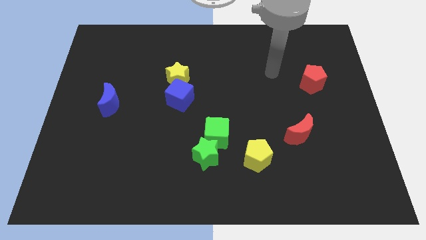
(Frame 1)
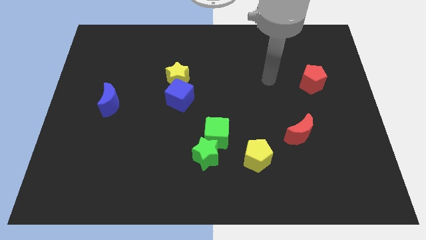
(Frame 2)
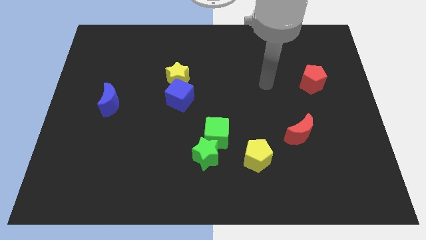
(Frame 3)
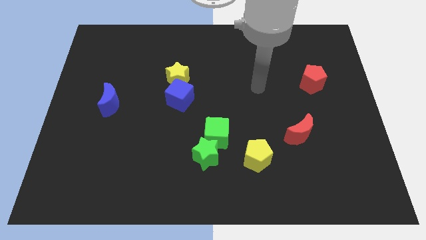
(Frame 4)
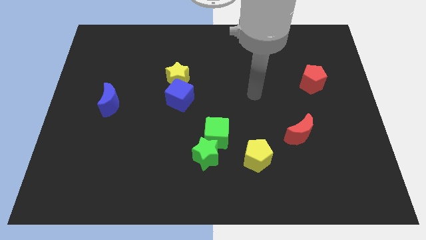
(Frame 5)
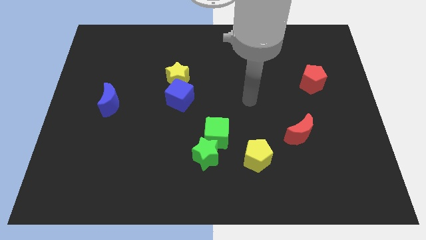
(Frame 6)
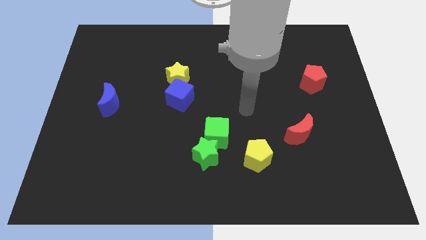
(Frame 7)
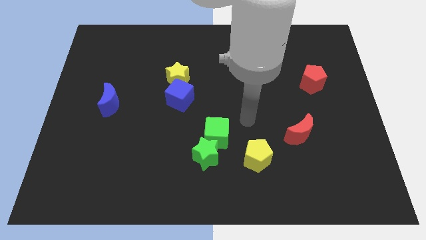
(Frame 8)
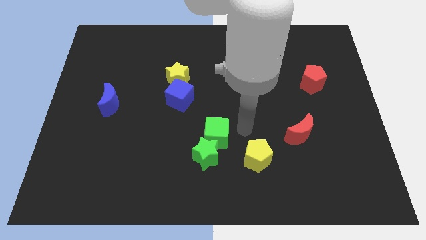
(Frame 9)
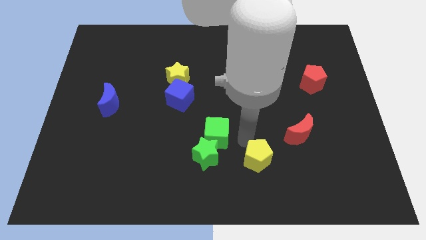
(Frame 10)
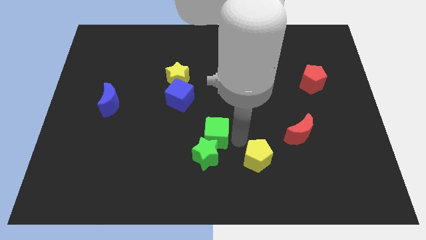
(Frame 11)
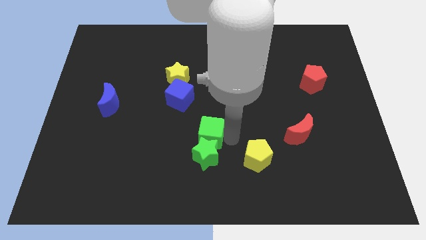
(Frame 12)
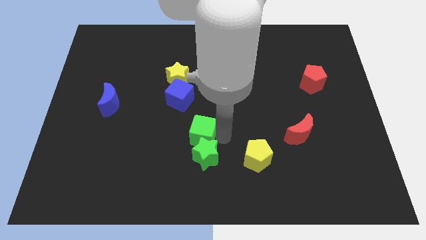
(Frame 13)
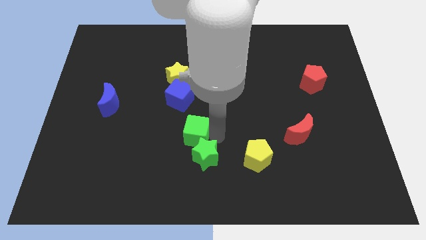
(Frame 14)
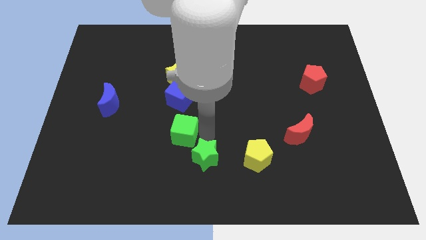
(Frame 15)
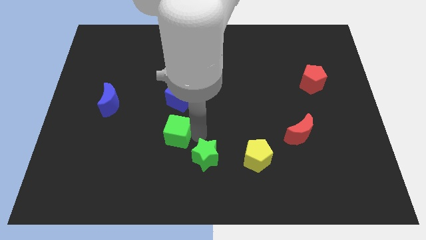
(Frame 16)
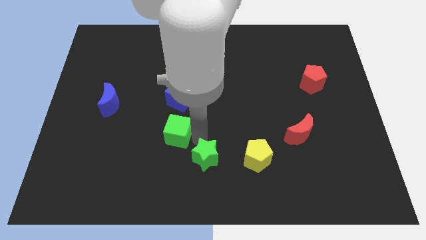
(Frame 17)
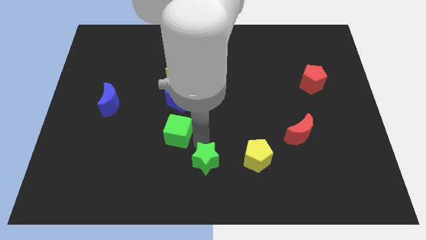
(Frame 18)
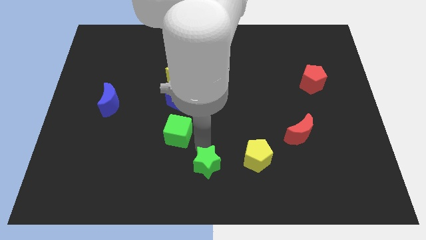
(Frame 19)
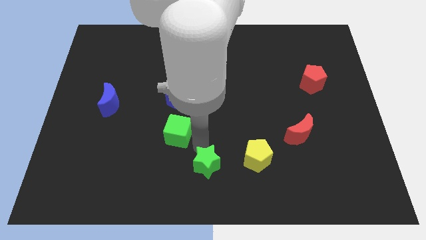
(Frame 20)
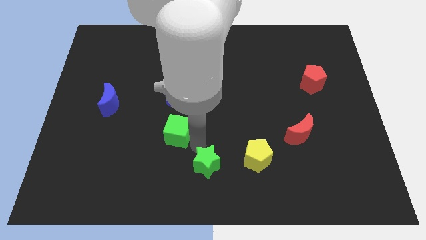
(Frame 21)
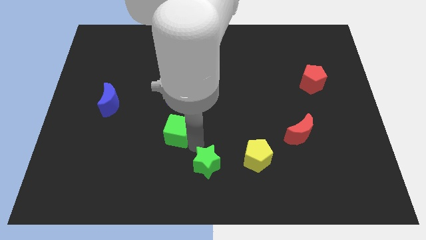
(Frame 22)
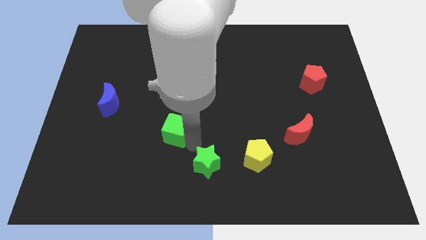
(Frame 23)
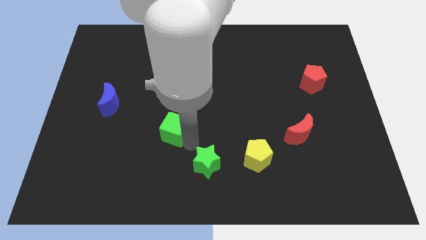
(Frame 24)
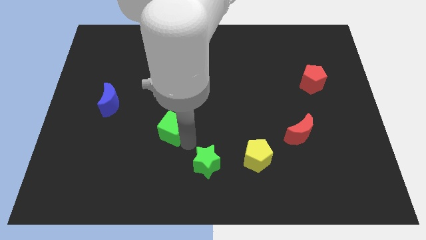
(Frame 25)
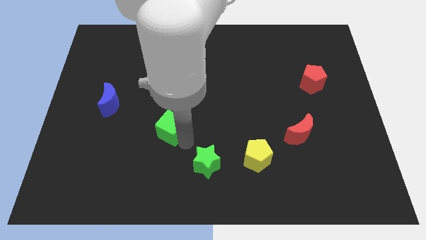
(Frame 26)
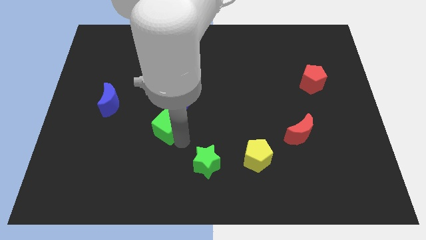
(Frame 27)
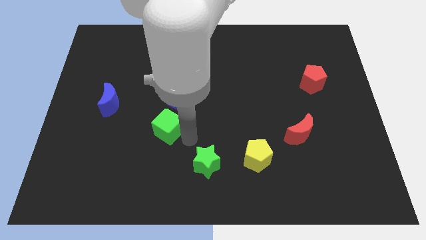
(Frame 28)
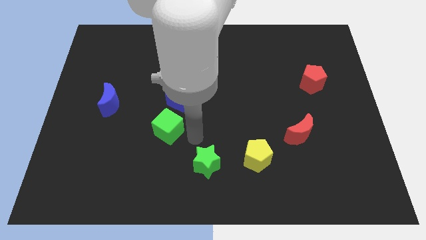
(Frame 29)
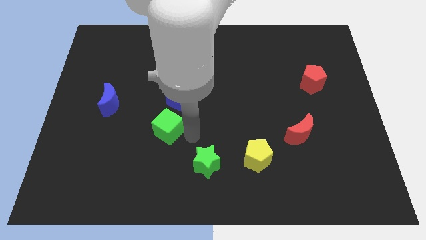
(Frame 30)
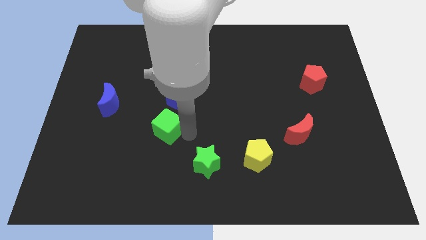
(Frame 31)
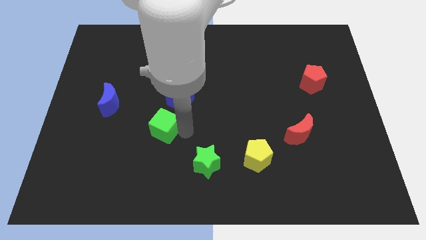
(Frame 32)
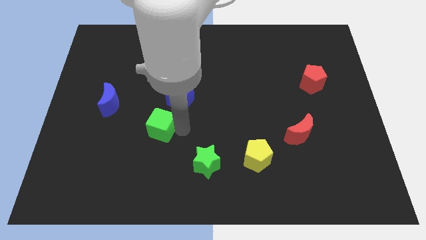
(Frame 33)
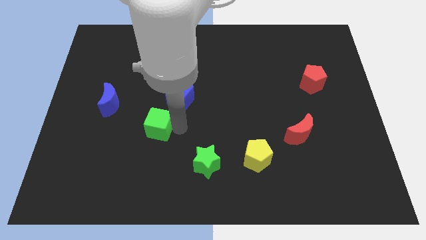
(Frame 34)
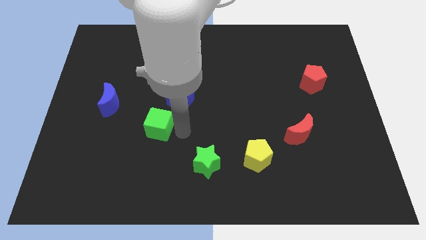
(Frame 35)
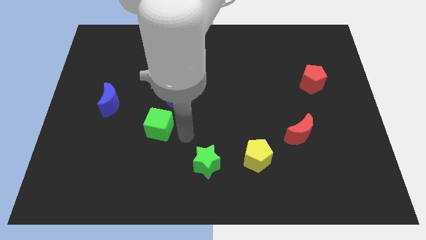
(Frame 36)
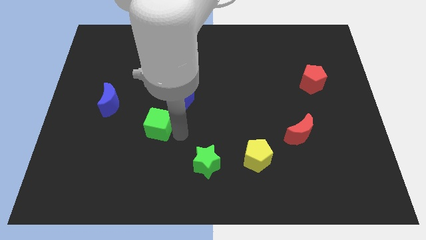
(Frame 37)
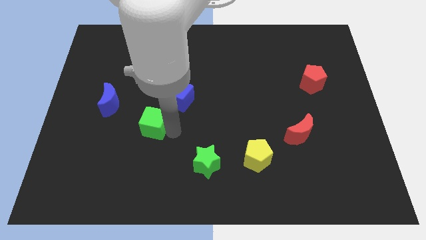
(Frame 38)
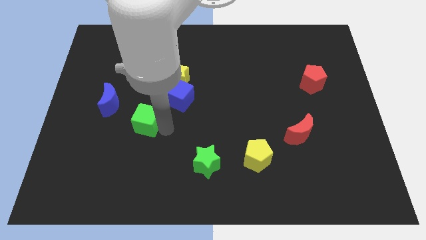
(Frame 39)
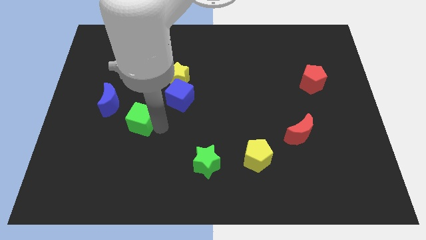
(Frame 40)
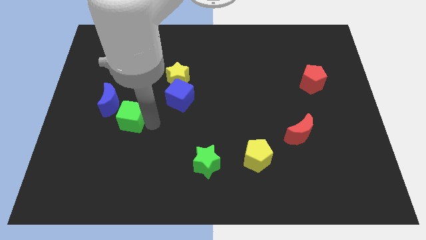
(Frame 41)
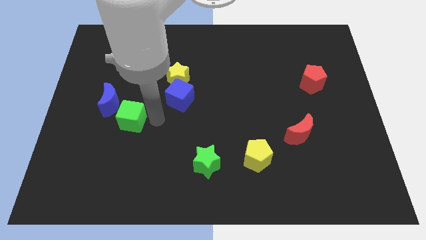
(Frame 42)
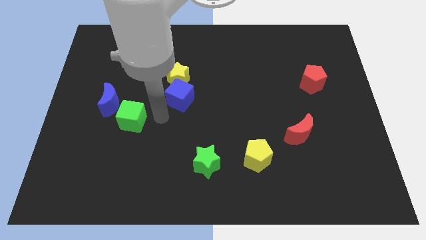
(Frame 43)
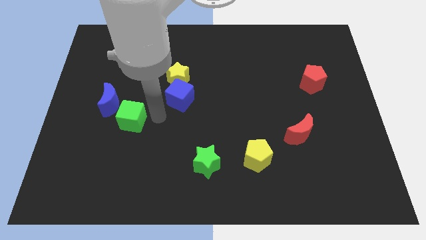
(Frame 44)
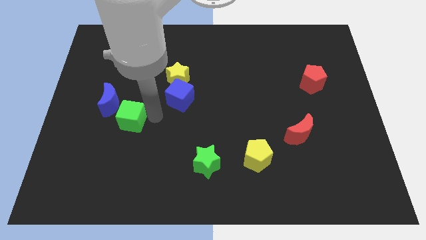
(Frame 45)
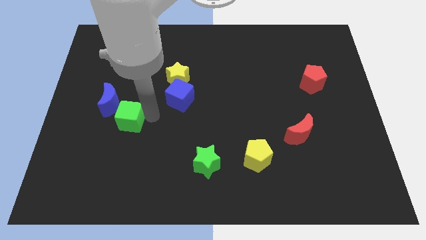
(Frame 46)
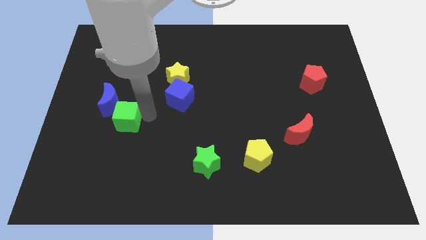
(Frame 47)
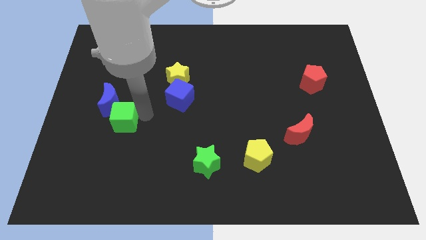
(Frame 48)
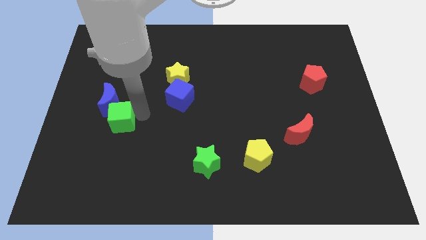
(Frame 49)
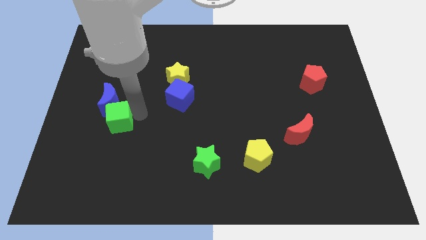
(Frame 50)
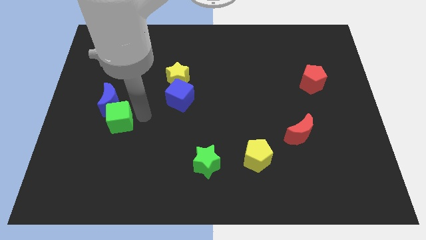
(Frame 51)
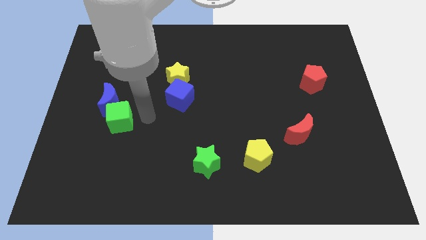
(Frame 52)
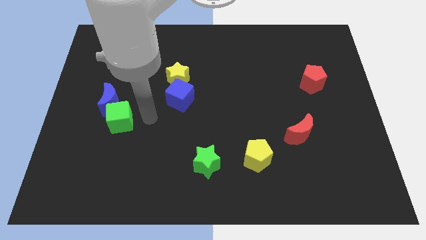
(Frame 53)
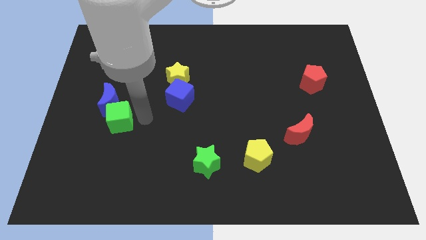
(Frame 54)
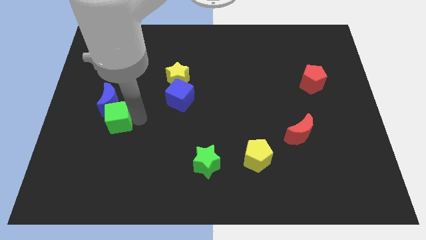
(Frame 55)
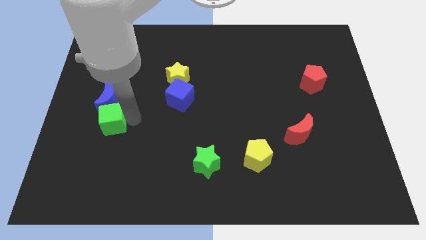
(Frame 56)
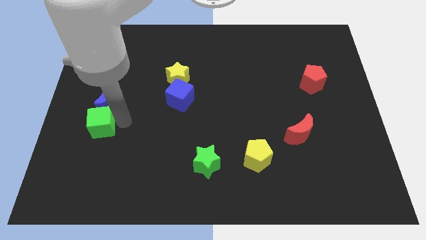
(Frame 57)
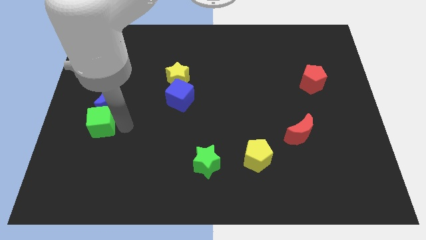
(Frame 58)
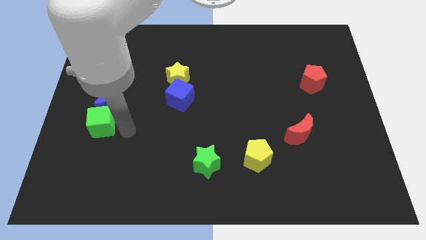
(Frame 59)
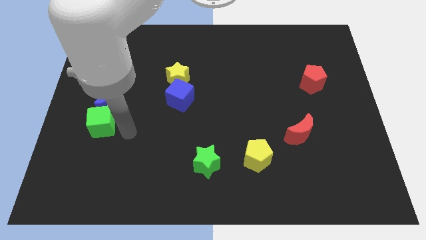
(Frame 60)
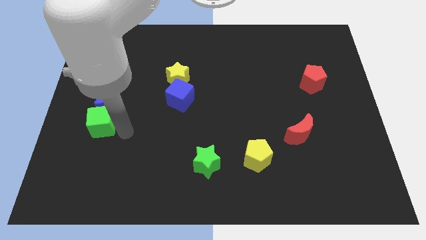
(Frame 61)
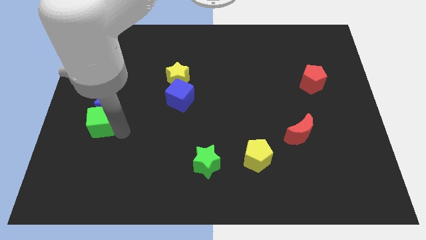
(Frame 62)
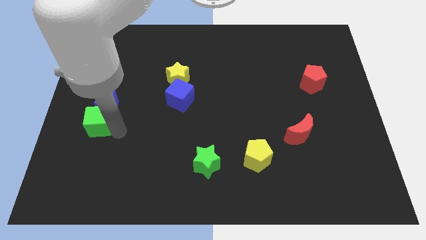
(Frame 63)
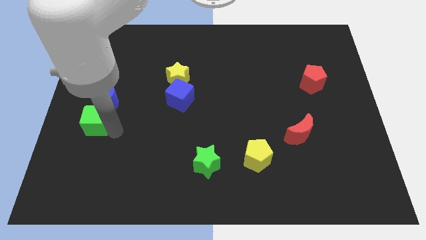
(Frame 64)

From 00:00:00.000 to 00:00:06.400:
put the green cube to the left side of the board
